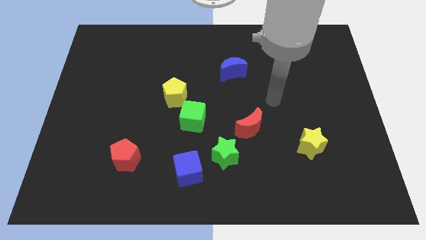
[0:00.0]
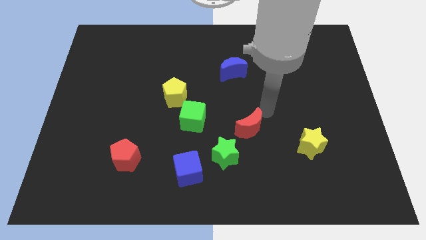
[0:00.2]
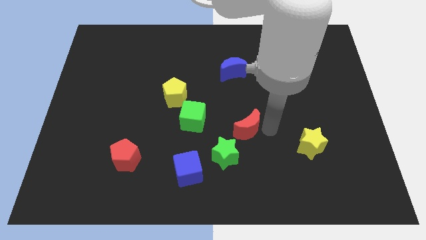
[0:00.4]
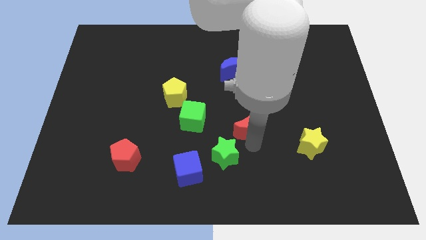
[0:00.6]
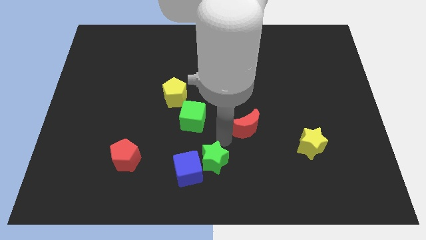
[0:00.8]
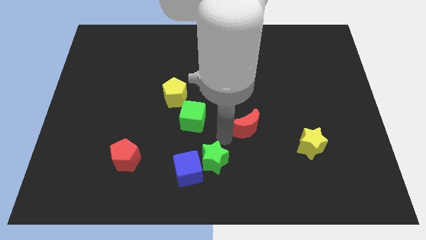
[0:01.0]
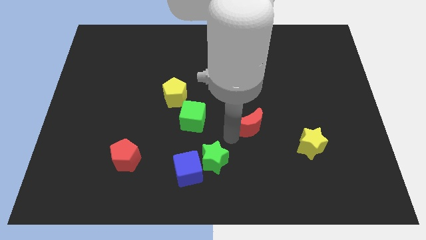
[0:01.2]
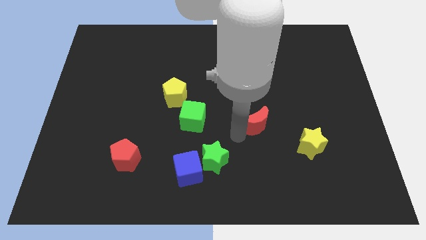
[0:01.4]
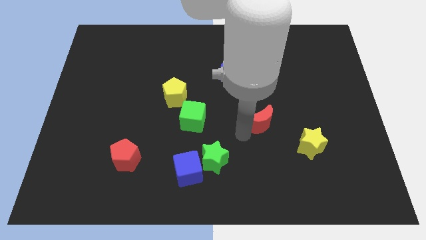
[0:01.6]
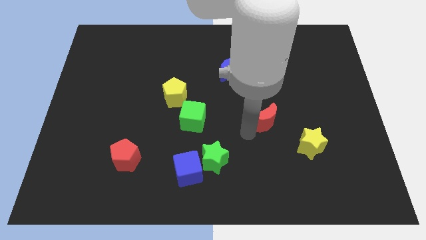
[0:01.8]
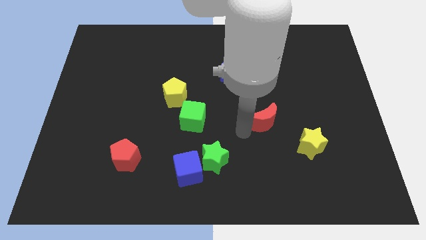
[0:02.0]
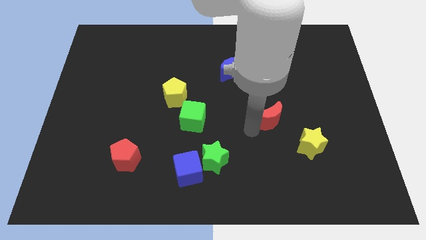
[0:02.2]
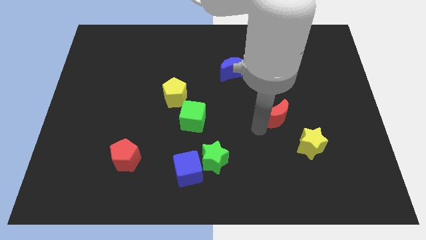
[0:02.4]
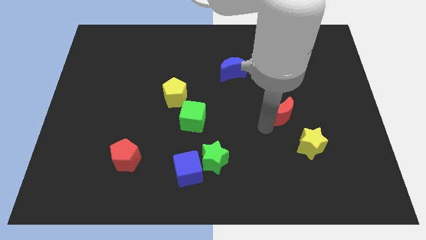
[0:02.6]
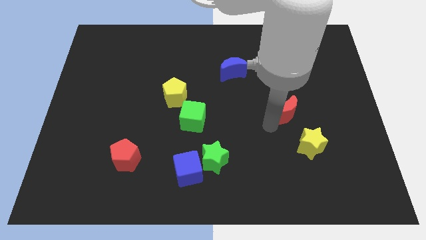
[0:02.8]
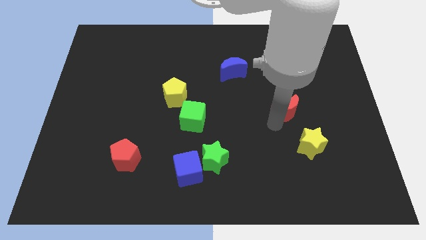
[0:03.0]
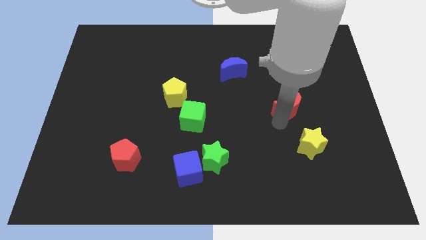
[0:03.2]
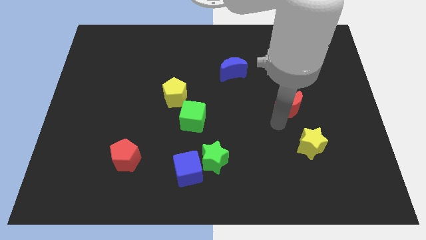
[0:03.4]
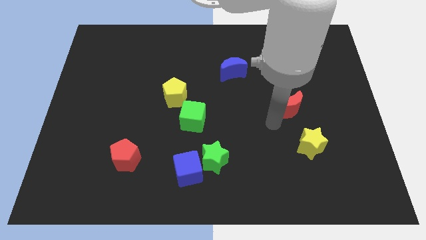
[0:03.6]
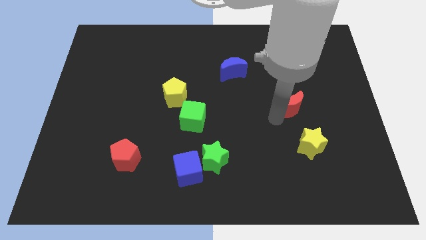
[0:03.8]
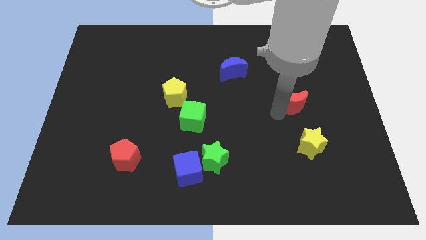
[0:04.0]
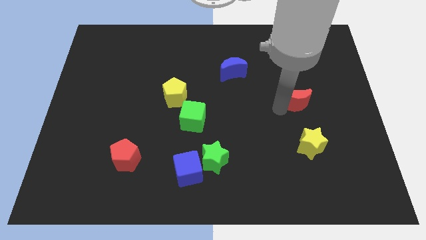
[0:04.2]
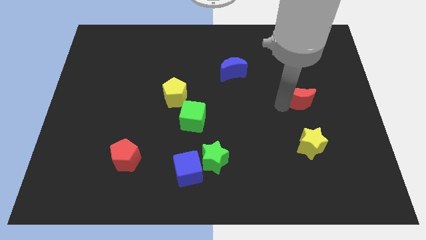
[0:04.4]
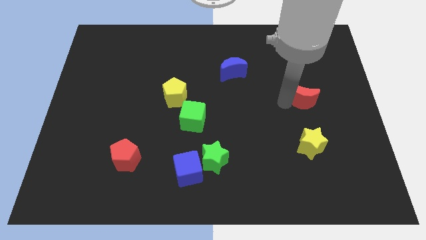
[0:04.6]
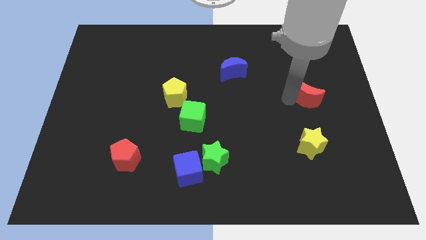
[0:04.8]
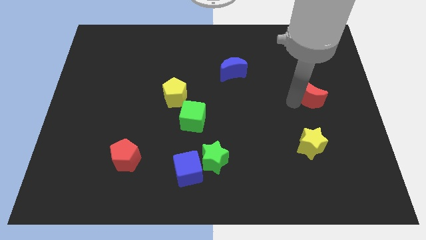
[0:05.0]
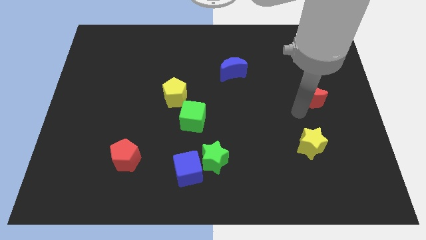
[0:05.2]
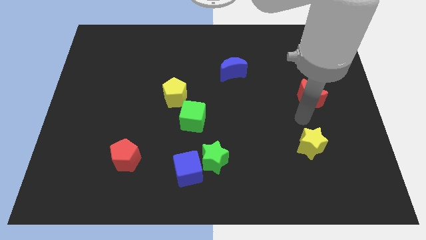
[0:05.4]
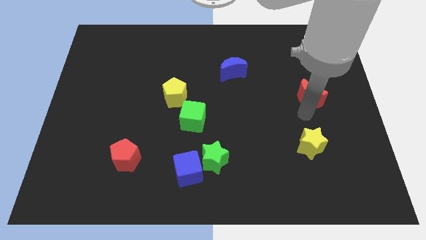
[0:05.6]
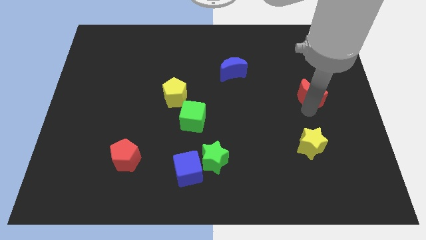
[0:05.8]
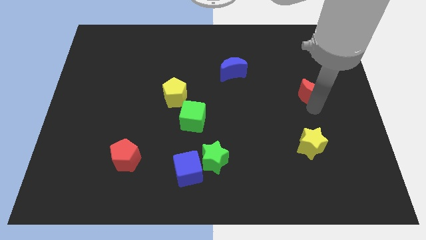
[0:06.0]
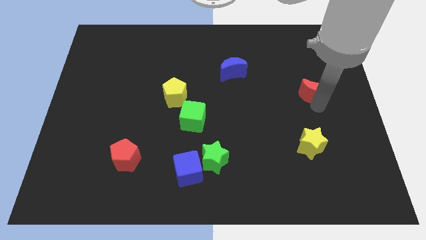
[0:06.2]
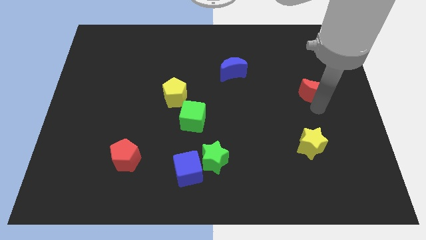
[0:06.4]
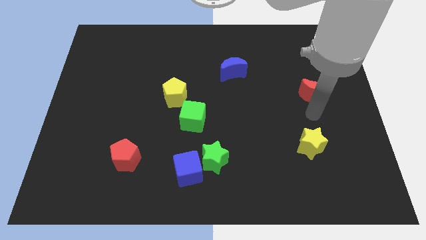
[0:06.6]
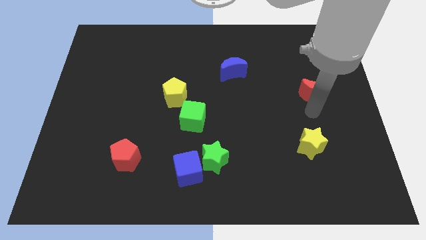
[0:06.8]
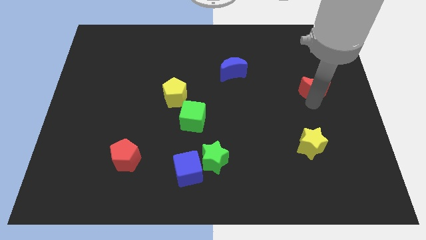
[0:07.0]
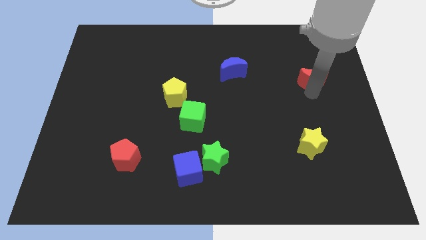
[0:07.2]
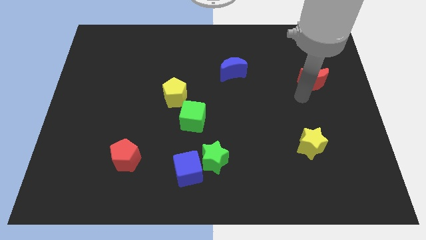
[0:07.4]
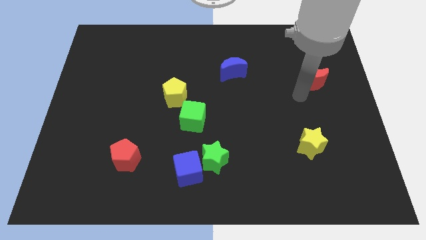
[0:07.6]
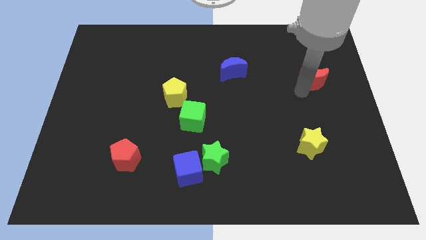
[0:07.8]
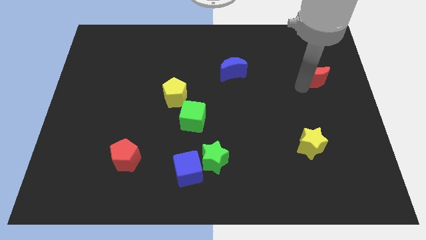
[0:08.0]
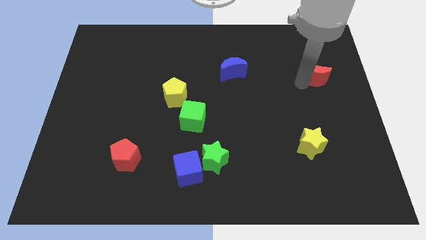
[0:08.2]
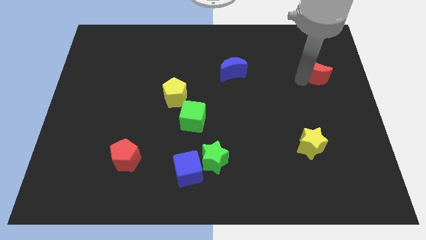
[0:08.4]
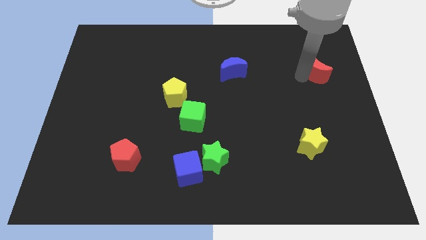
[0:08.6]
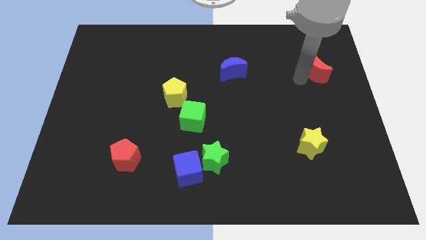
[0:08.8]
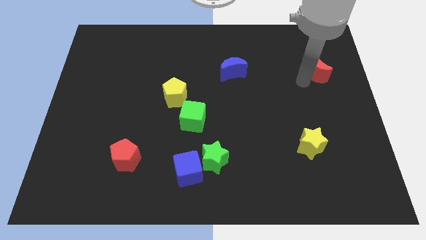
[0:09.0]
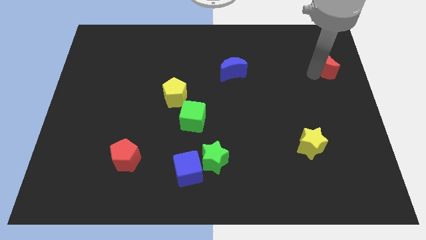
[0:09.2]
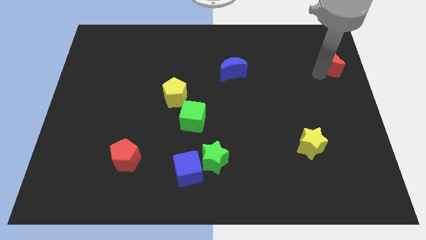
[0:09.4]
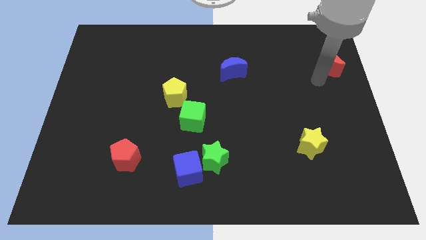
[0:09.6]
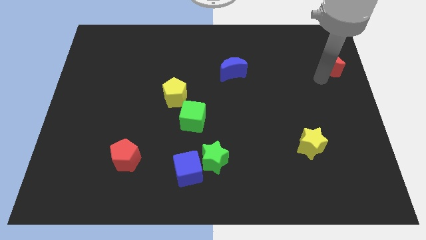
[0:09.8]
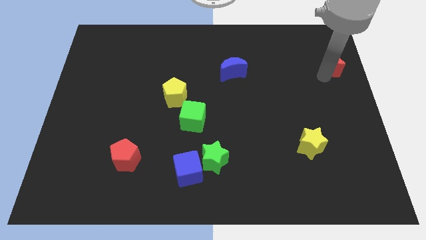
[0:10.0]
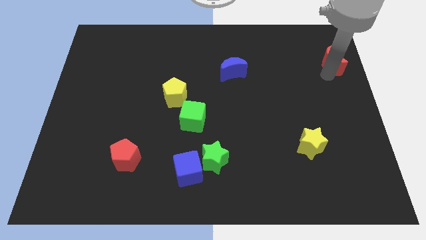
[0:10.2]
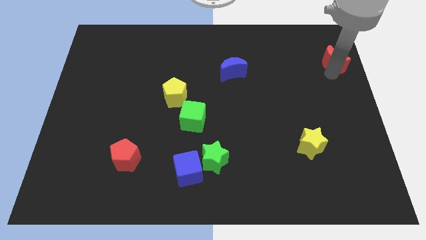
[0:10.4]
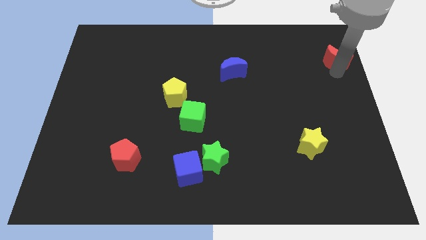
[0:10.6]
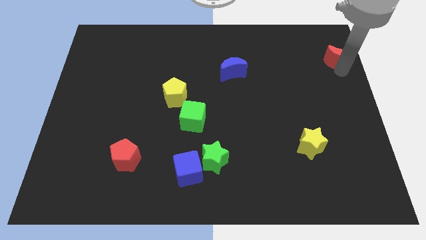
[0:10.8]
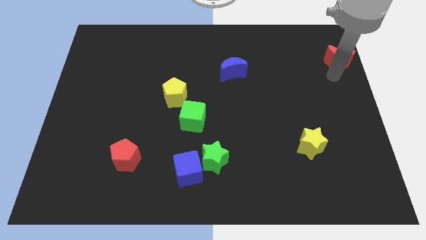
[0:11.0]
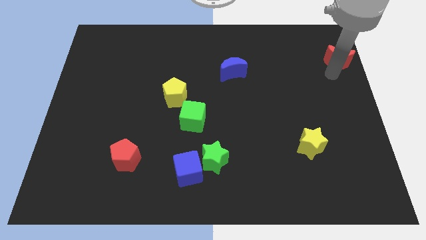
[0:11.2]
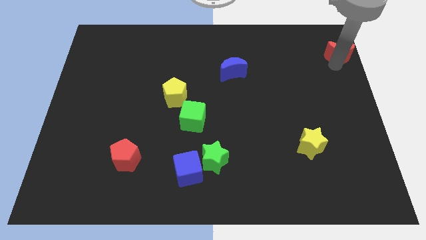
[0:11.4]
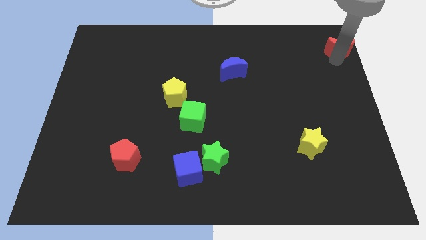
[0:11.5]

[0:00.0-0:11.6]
slide the red moon to the top right of the board
